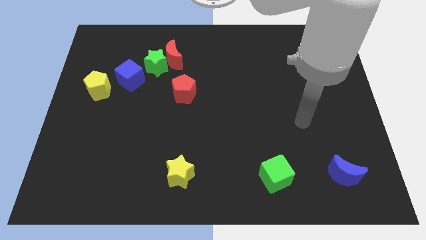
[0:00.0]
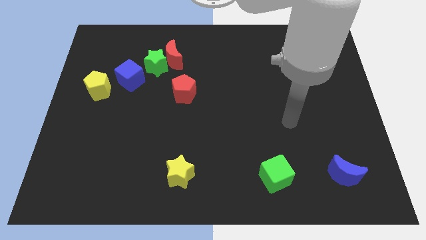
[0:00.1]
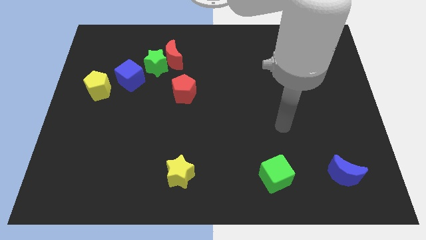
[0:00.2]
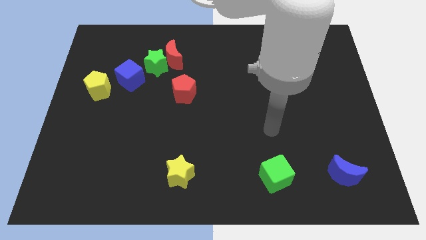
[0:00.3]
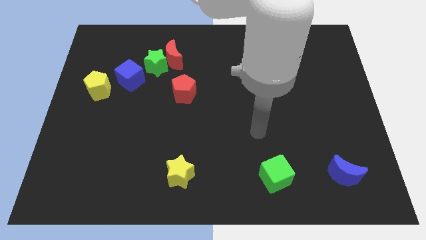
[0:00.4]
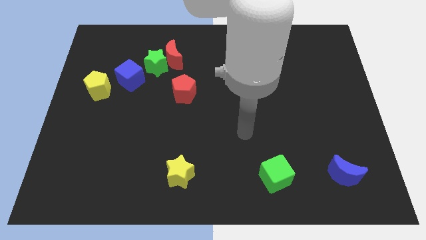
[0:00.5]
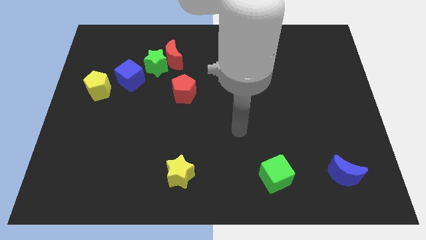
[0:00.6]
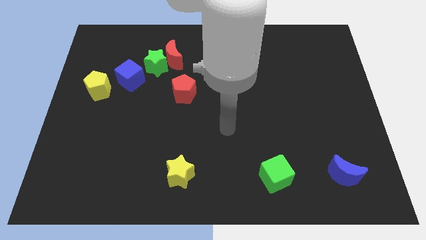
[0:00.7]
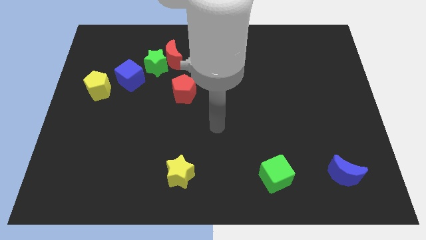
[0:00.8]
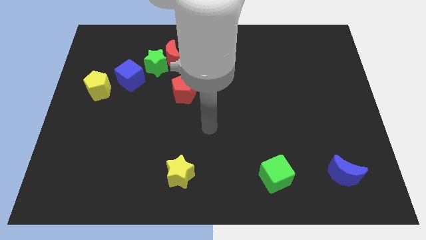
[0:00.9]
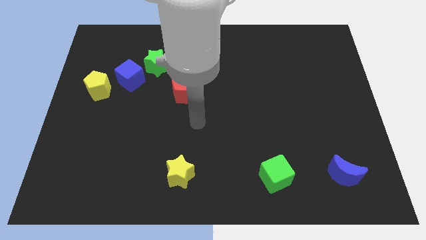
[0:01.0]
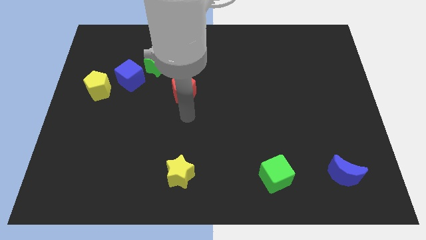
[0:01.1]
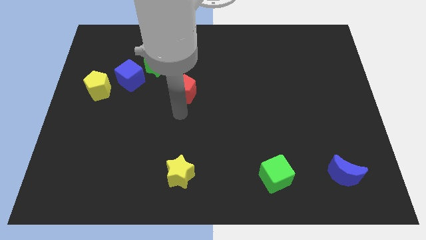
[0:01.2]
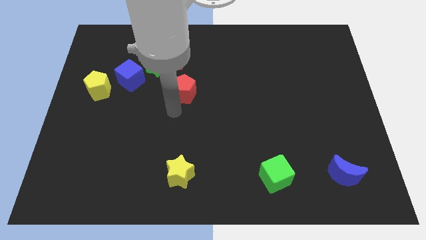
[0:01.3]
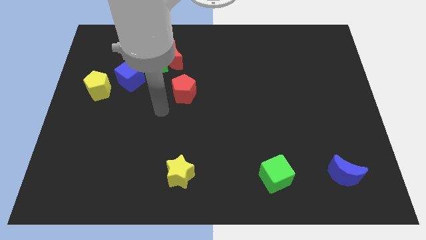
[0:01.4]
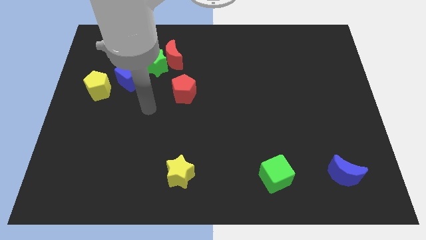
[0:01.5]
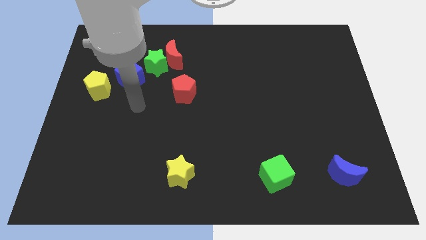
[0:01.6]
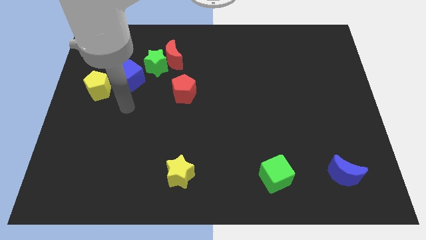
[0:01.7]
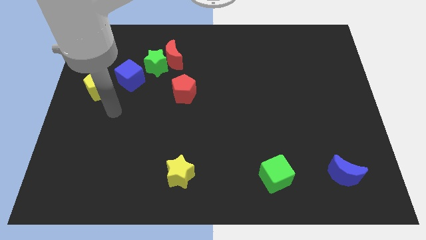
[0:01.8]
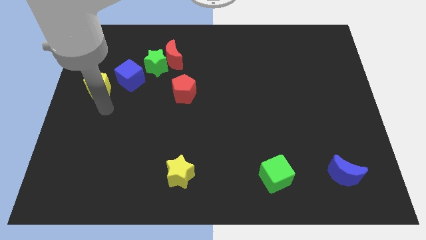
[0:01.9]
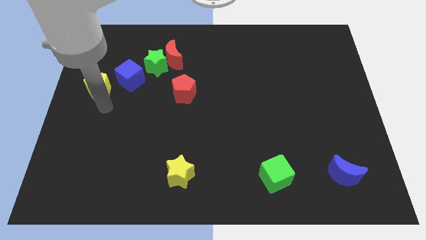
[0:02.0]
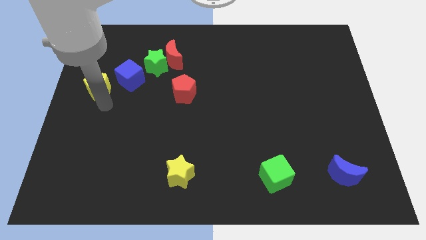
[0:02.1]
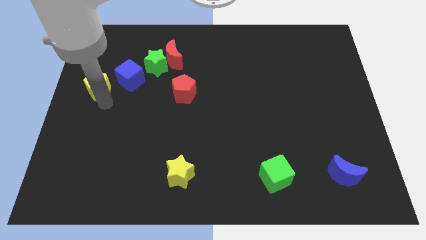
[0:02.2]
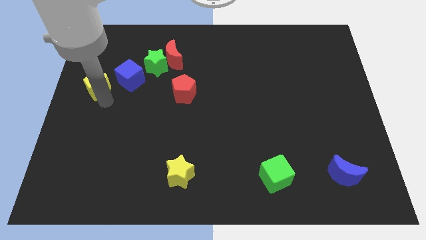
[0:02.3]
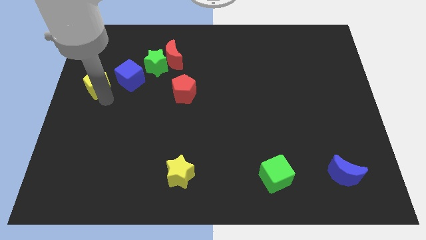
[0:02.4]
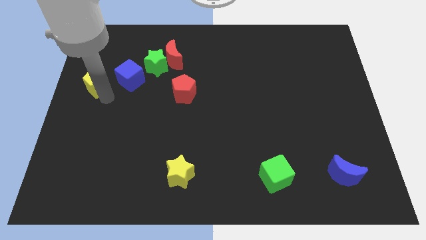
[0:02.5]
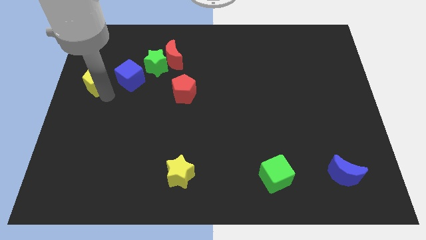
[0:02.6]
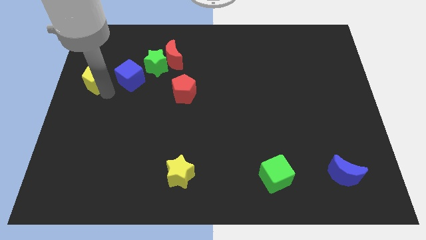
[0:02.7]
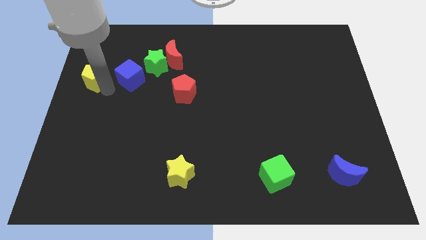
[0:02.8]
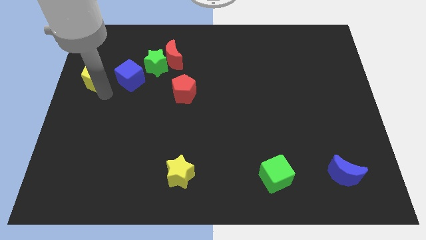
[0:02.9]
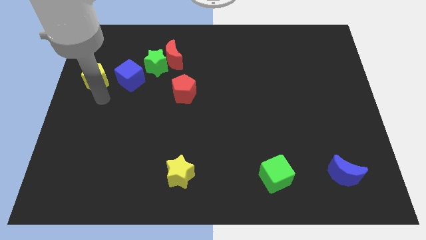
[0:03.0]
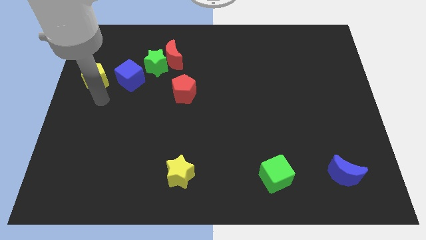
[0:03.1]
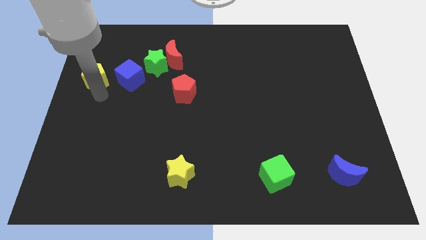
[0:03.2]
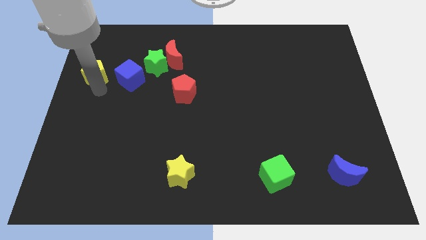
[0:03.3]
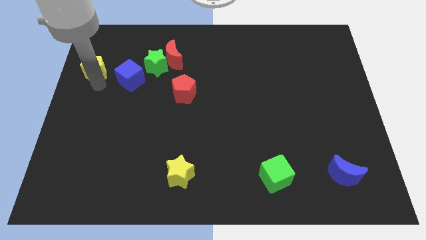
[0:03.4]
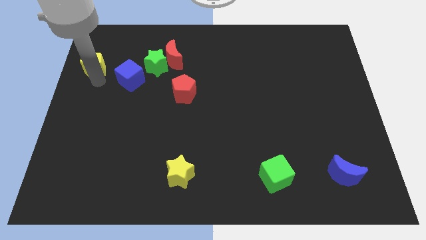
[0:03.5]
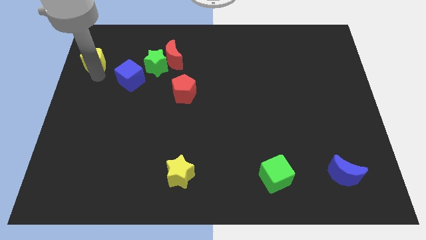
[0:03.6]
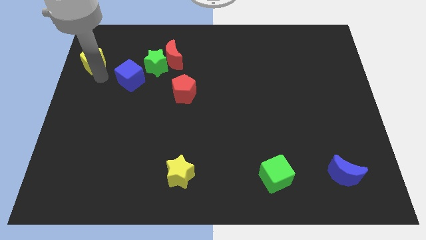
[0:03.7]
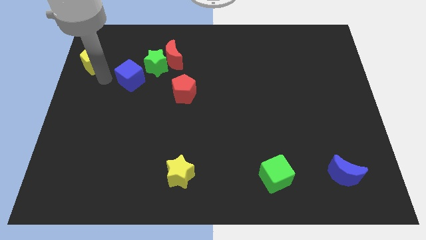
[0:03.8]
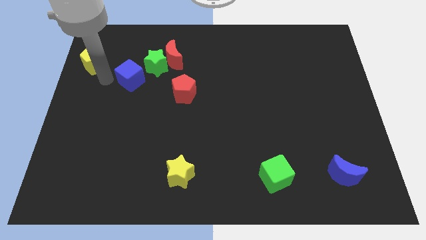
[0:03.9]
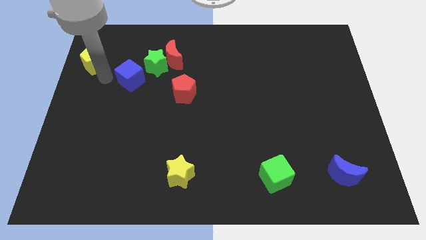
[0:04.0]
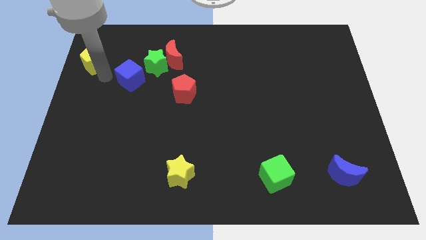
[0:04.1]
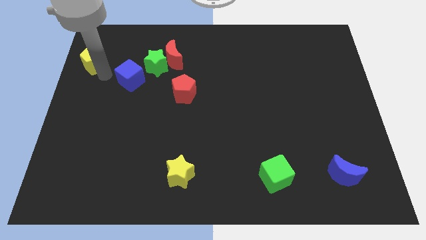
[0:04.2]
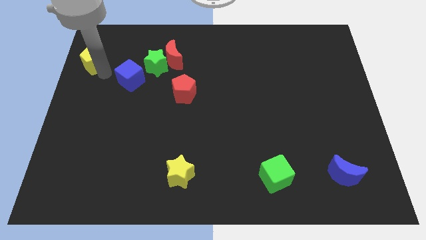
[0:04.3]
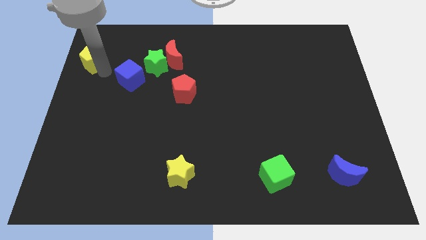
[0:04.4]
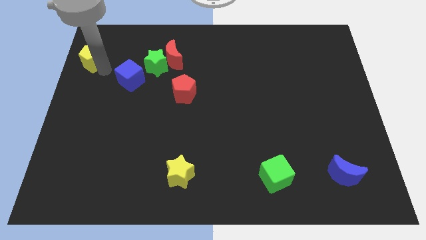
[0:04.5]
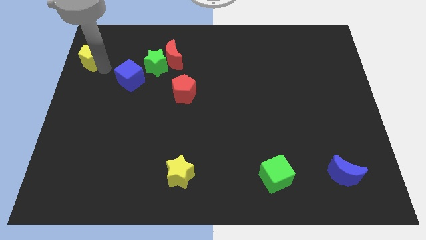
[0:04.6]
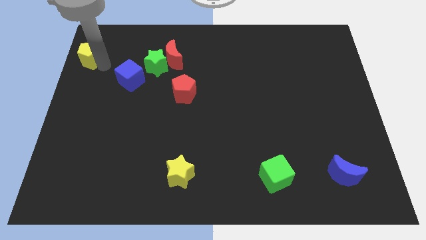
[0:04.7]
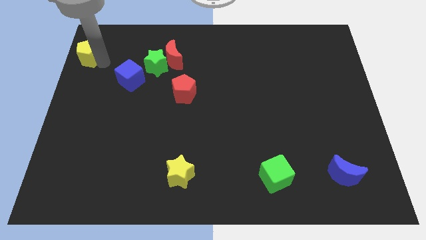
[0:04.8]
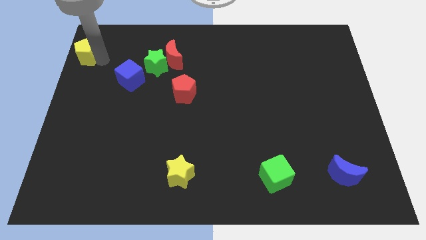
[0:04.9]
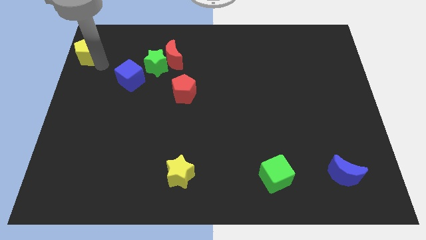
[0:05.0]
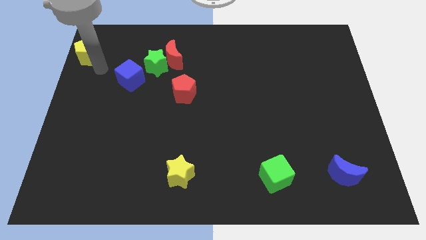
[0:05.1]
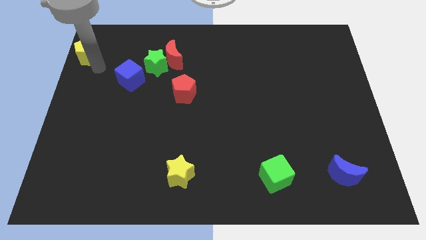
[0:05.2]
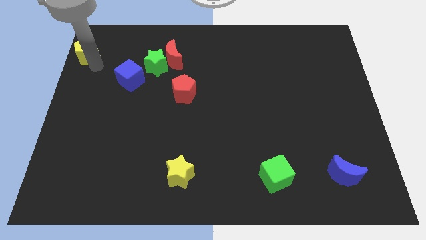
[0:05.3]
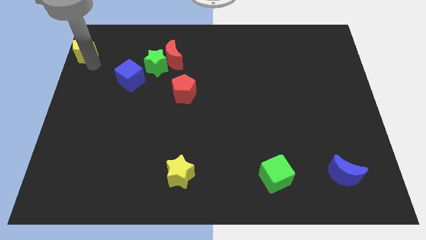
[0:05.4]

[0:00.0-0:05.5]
slide the yellow pentagon to the upper left corner
